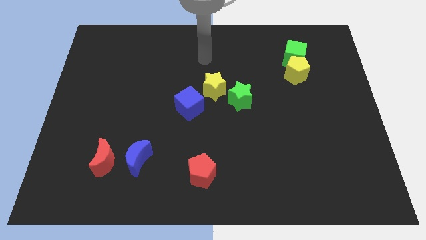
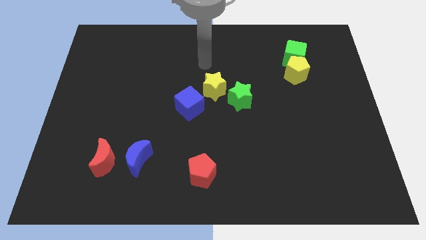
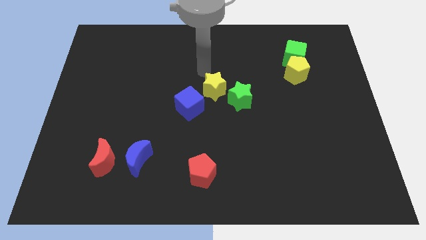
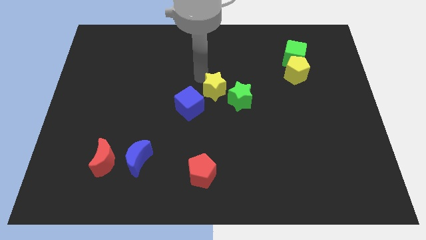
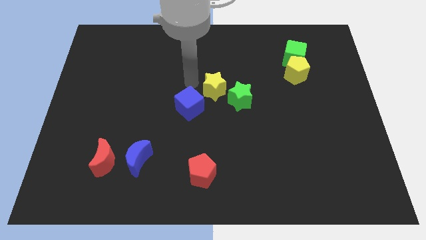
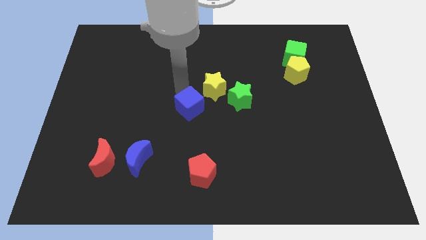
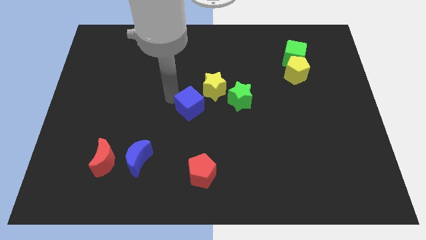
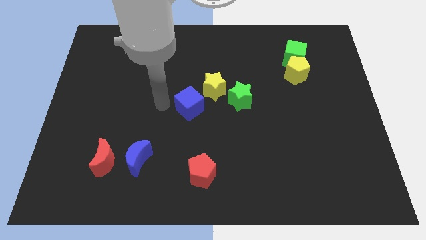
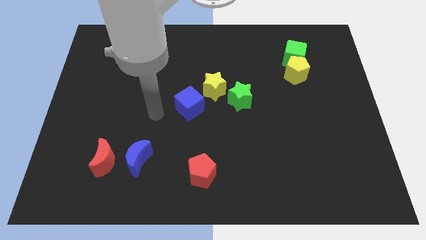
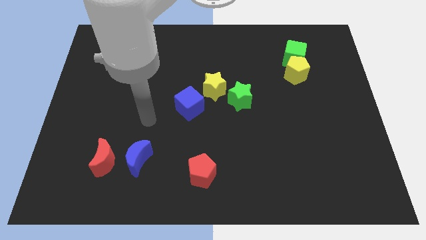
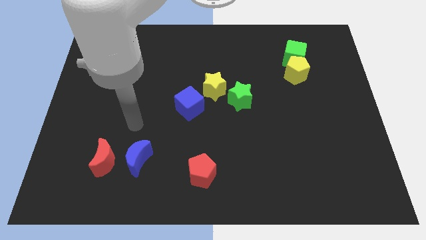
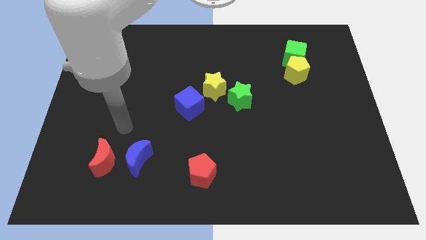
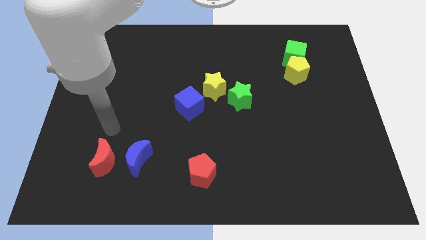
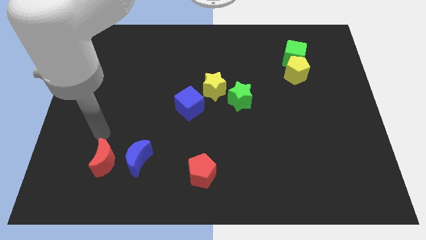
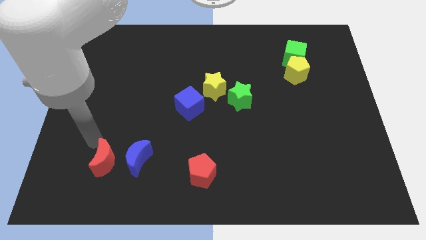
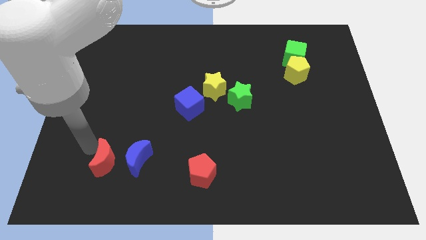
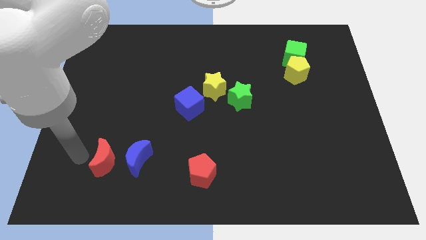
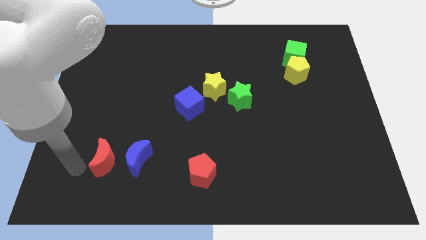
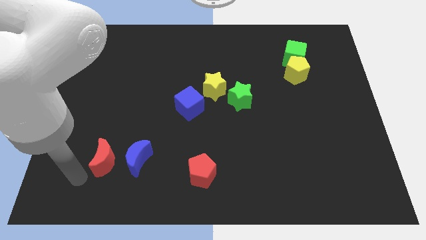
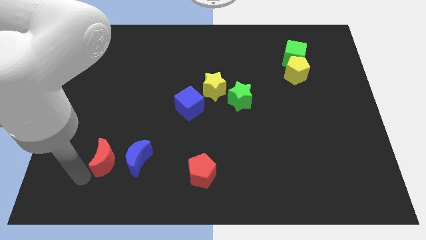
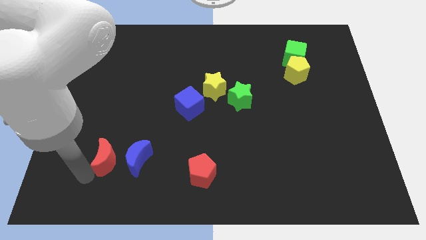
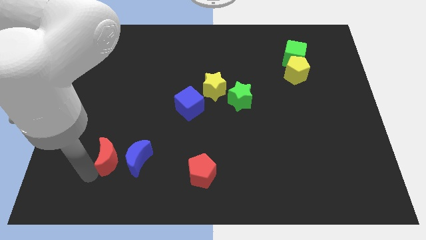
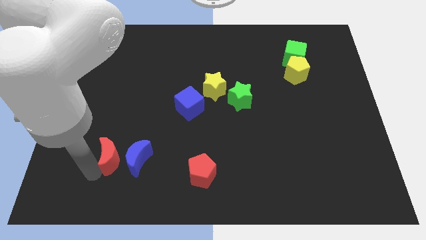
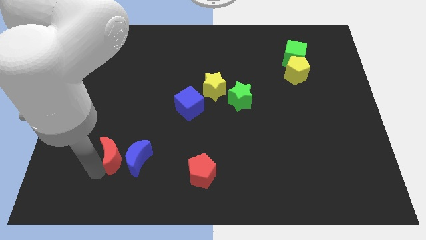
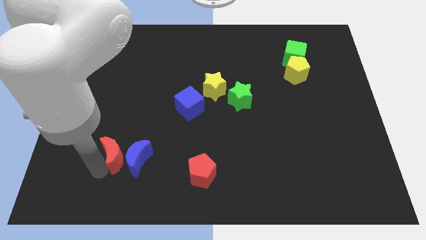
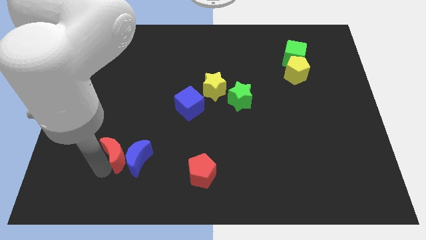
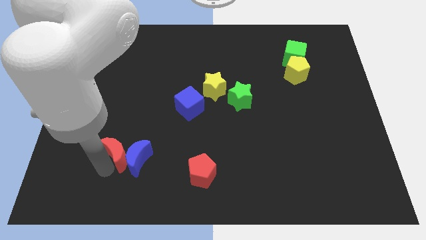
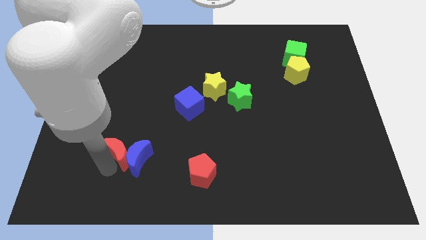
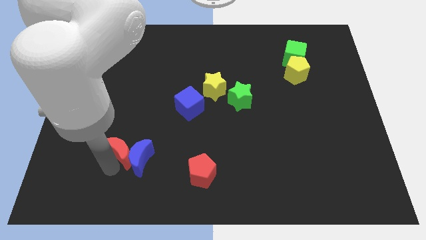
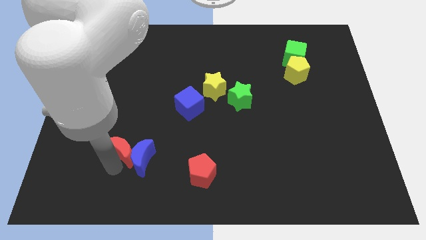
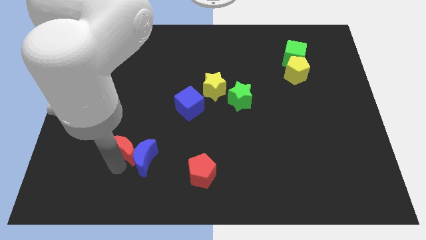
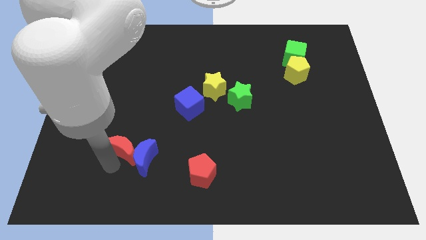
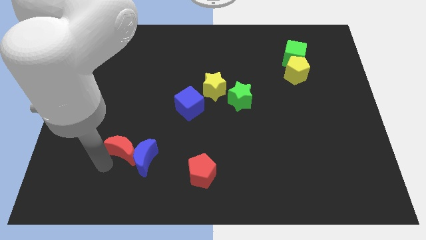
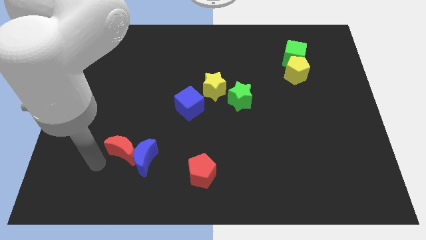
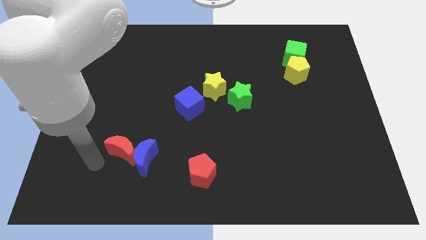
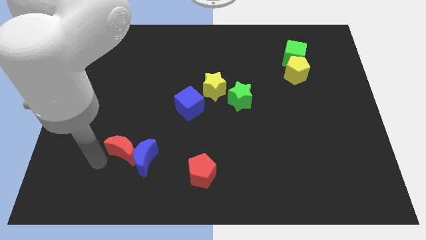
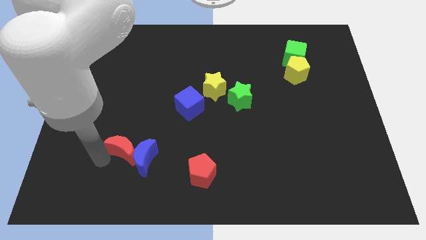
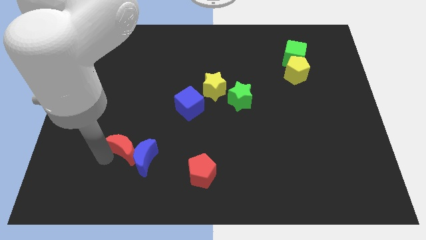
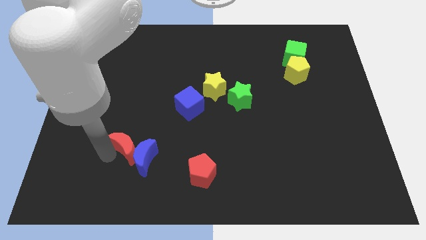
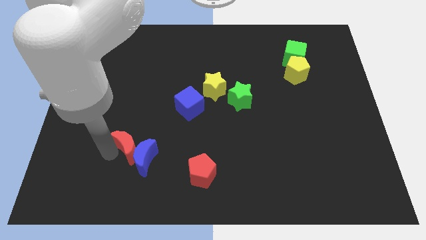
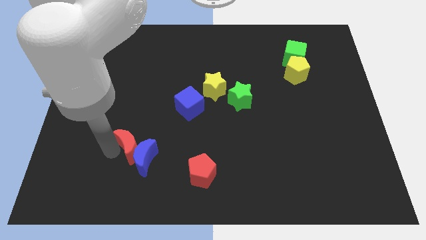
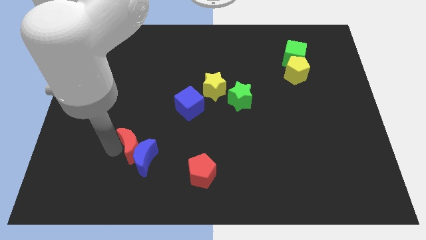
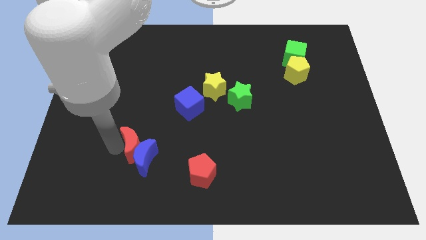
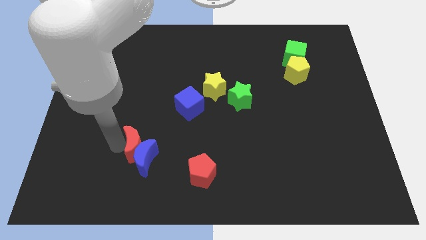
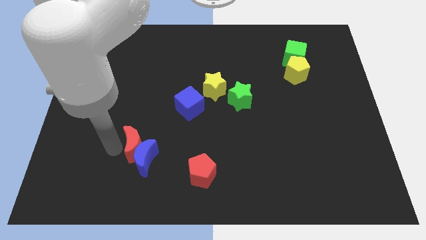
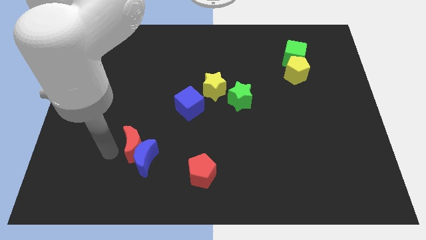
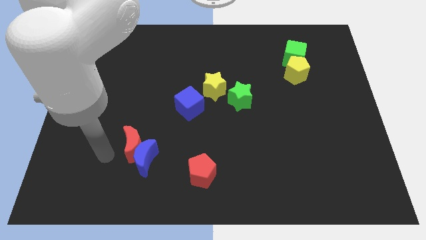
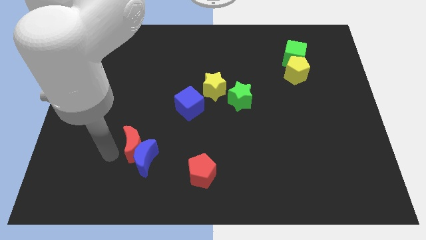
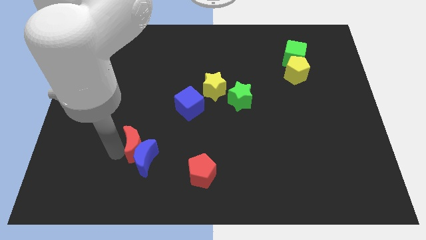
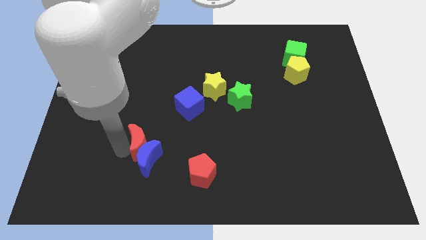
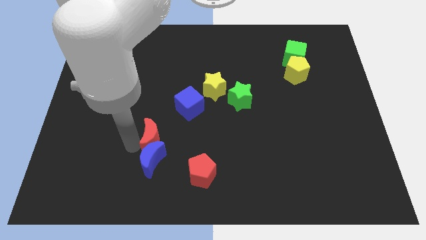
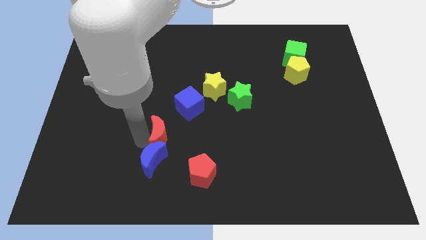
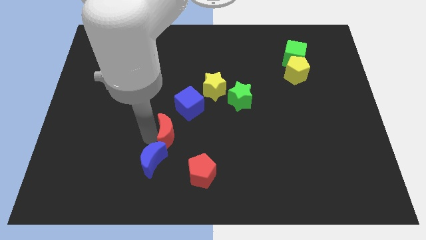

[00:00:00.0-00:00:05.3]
push the red moon below the blue cube
